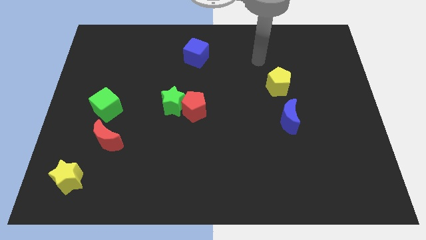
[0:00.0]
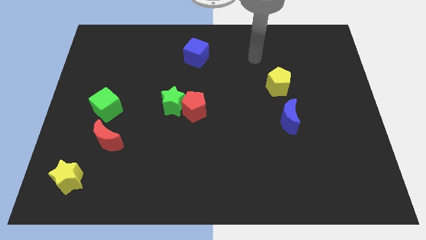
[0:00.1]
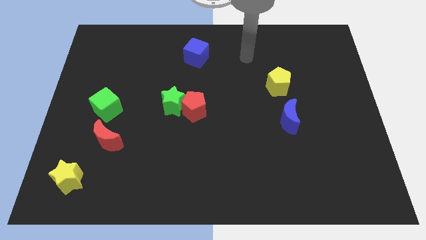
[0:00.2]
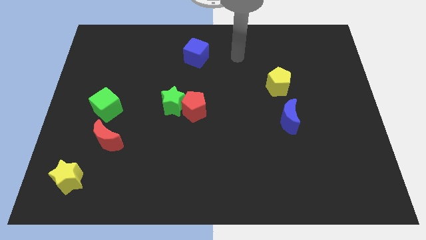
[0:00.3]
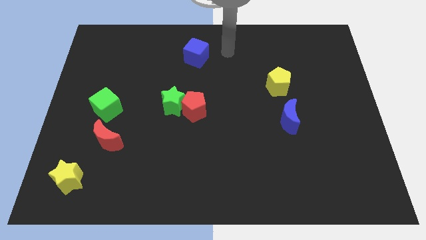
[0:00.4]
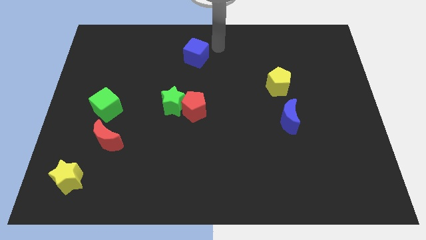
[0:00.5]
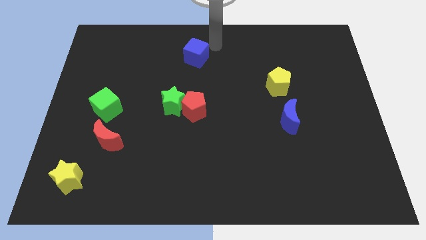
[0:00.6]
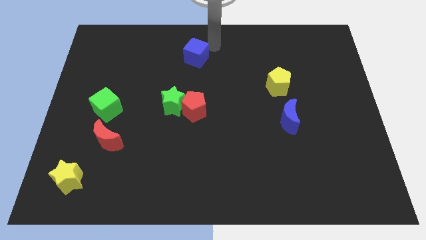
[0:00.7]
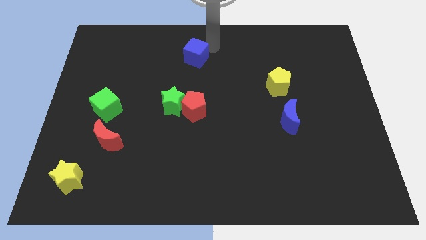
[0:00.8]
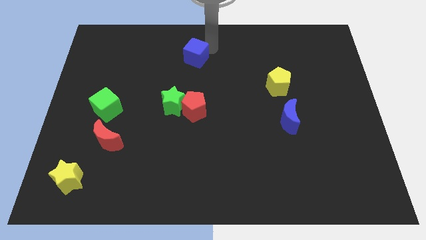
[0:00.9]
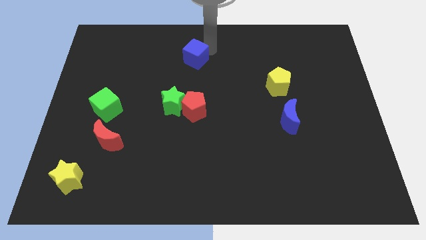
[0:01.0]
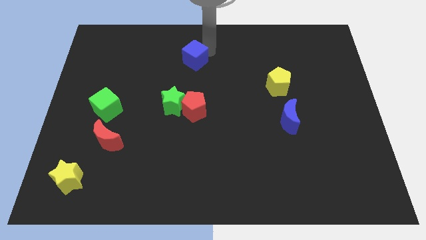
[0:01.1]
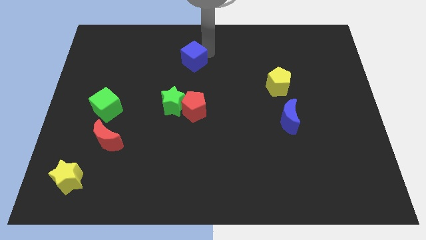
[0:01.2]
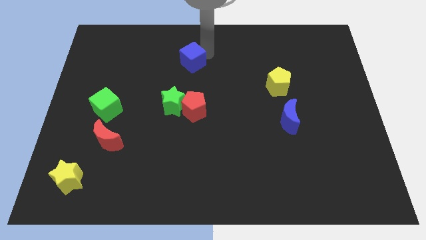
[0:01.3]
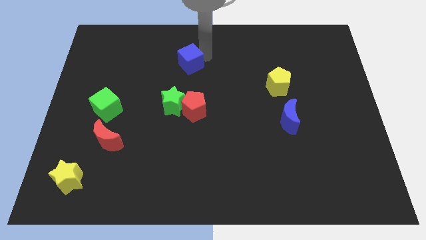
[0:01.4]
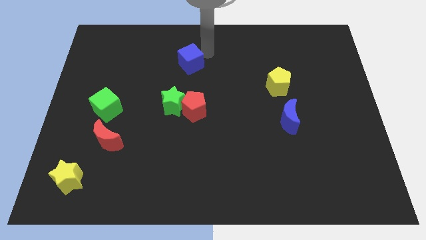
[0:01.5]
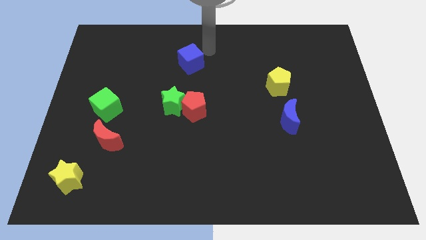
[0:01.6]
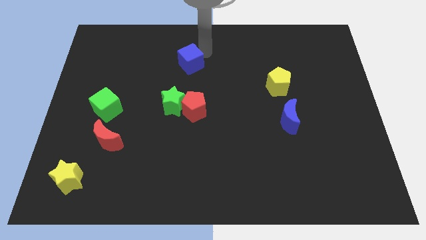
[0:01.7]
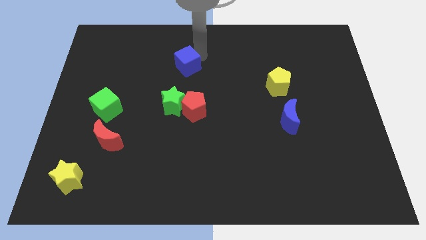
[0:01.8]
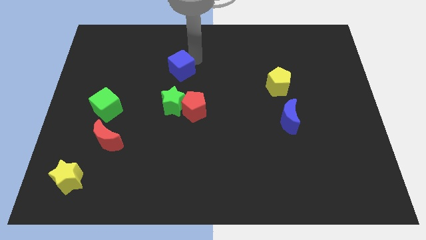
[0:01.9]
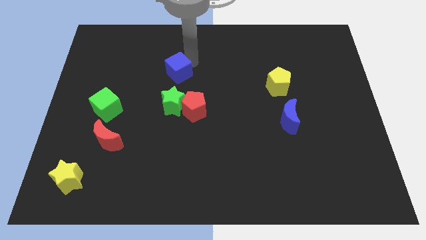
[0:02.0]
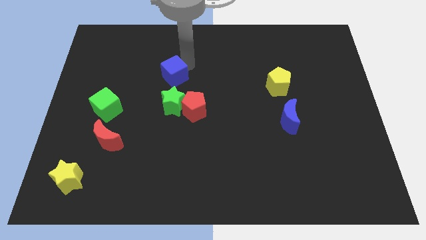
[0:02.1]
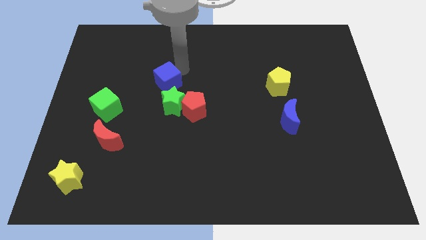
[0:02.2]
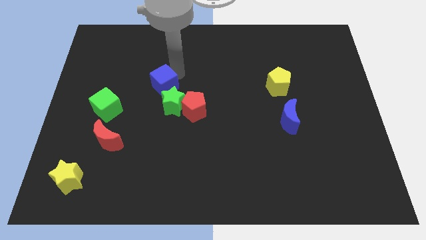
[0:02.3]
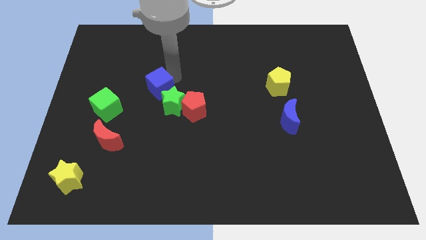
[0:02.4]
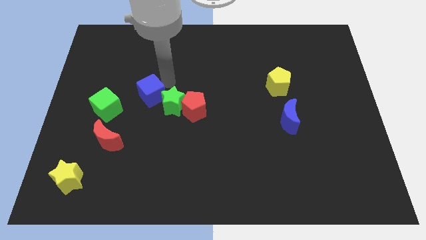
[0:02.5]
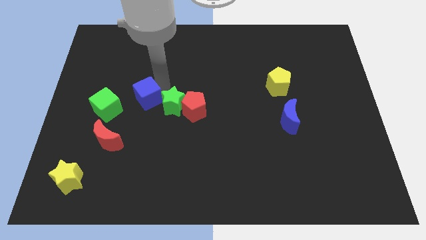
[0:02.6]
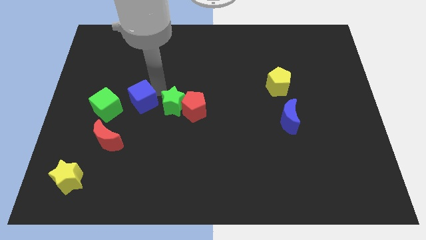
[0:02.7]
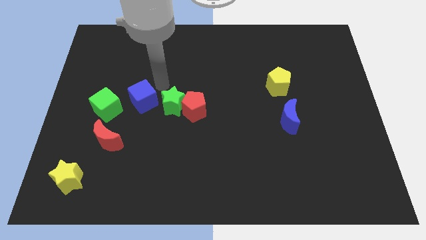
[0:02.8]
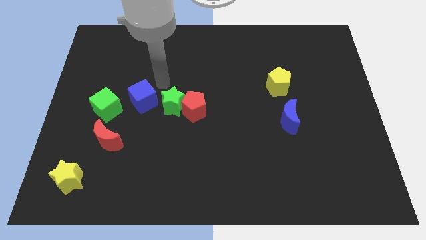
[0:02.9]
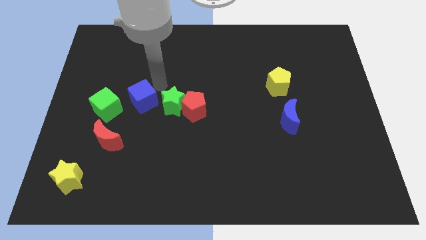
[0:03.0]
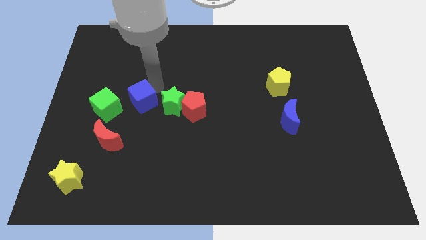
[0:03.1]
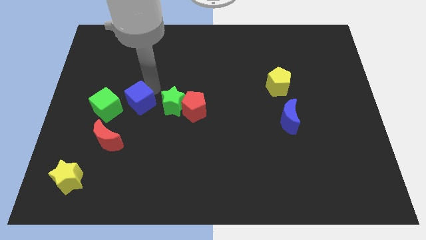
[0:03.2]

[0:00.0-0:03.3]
slide the blue cube down and to the left diagonally

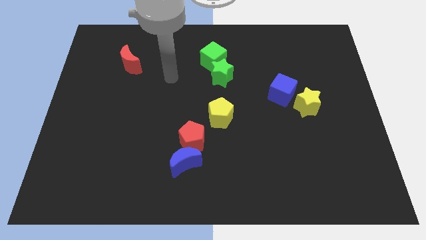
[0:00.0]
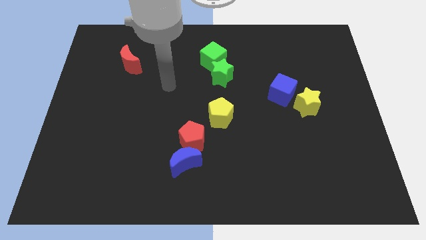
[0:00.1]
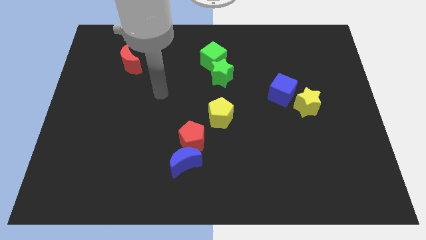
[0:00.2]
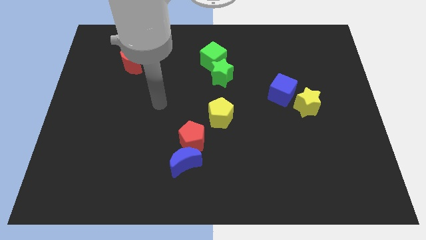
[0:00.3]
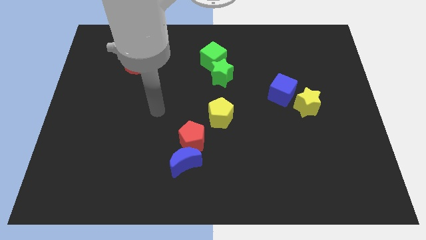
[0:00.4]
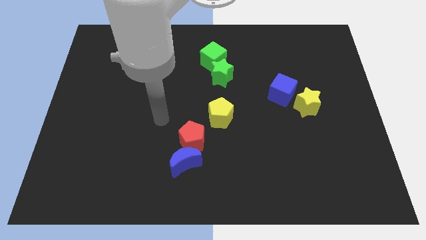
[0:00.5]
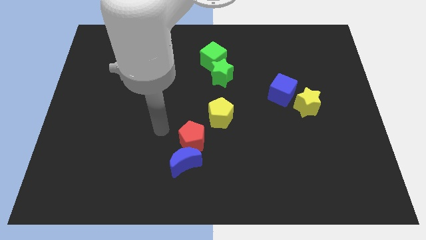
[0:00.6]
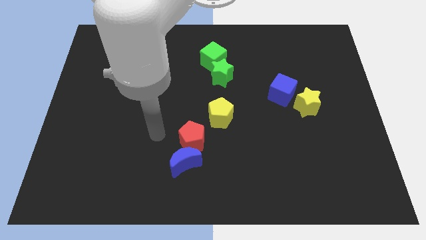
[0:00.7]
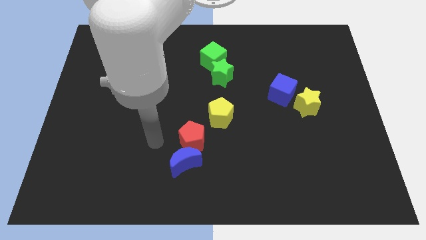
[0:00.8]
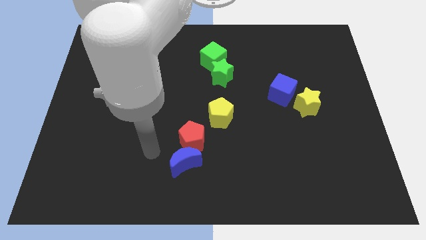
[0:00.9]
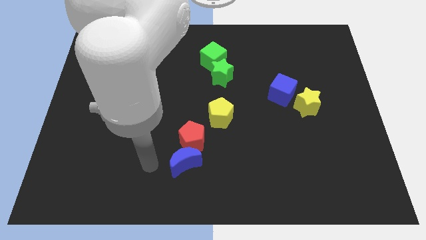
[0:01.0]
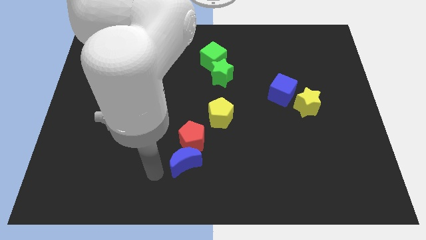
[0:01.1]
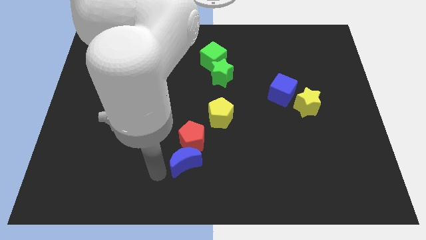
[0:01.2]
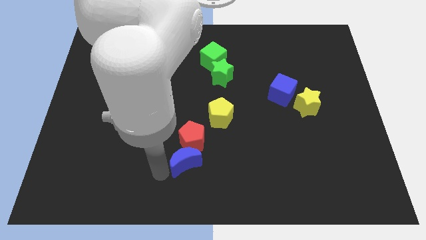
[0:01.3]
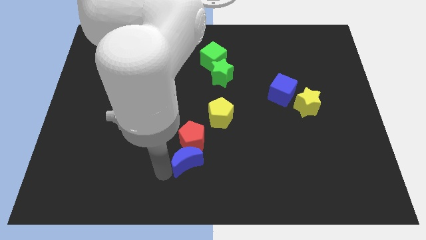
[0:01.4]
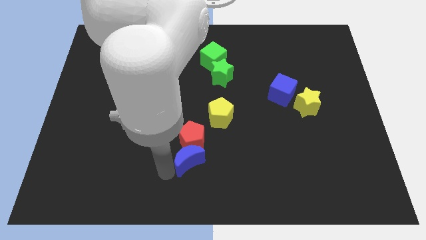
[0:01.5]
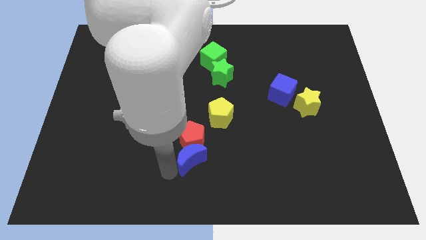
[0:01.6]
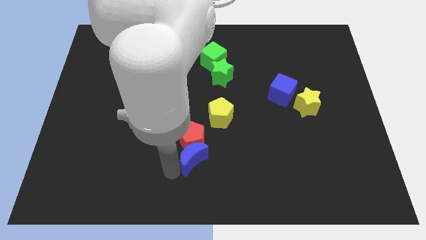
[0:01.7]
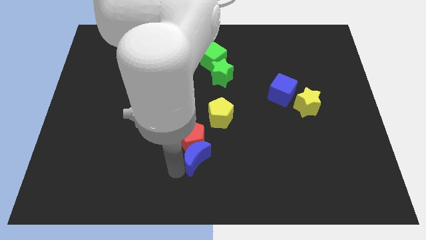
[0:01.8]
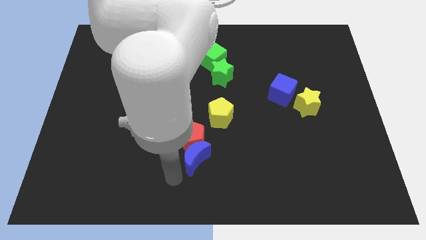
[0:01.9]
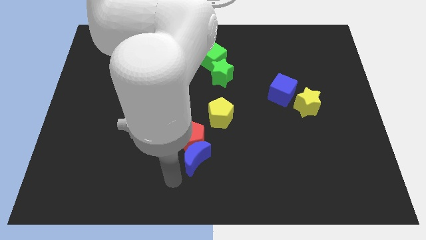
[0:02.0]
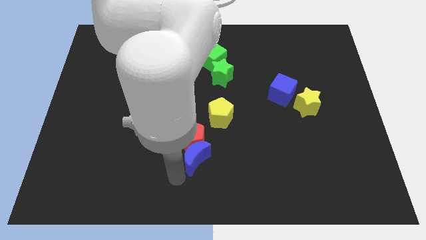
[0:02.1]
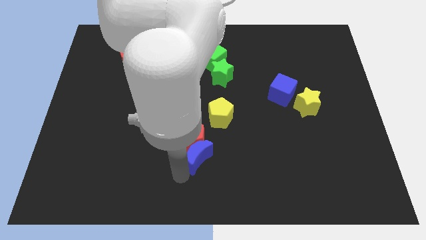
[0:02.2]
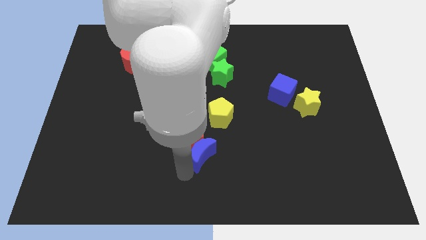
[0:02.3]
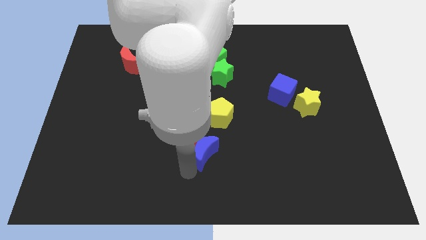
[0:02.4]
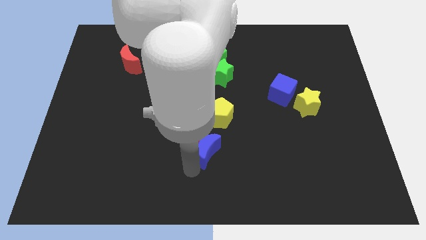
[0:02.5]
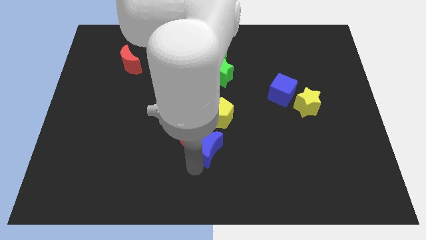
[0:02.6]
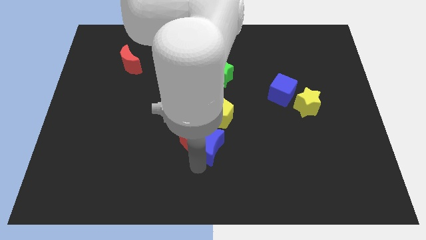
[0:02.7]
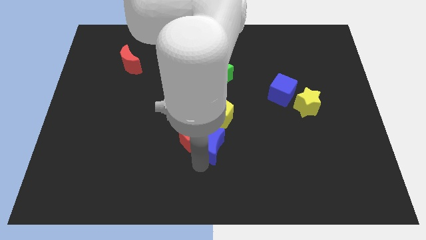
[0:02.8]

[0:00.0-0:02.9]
slightly slide the blue moon diagonally upwards and right

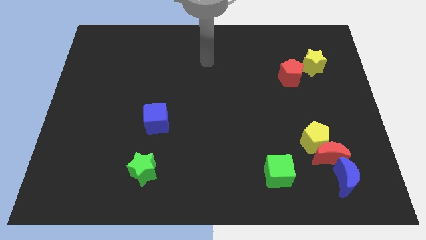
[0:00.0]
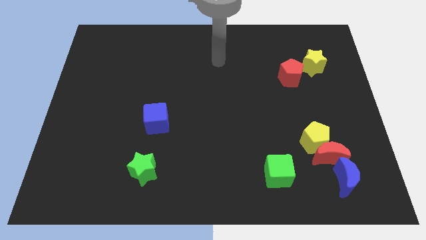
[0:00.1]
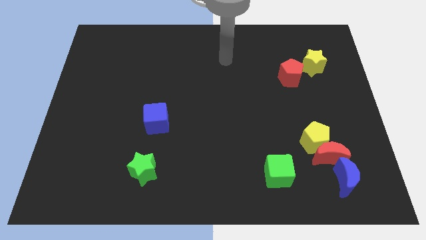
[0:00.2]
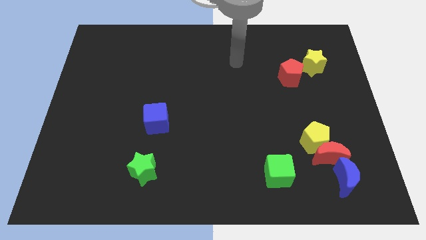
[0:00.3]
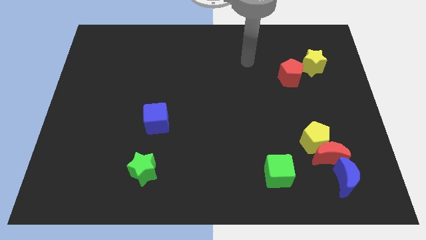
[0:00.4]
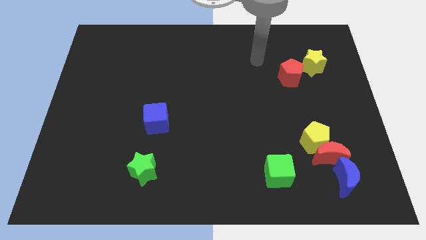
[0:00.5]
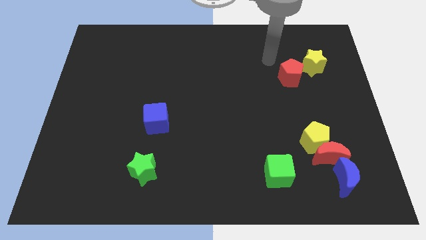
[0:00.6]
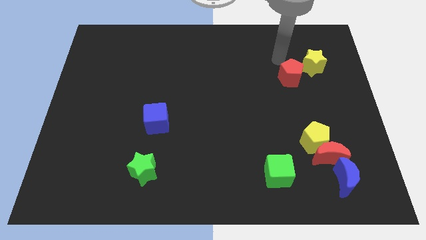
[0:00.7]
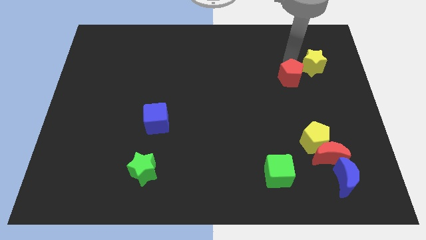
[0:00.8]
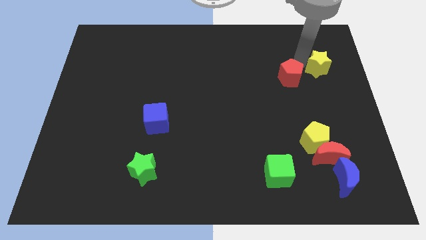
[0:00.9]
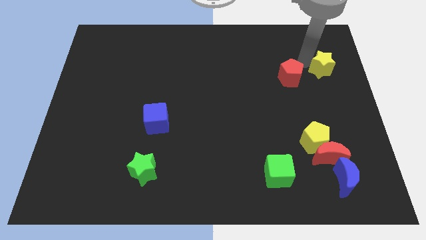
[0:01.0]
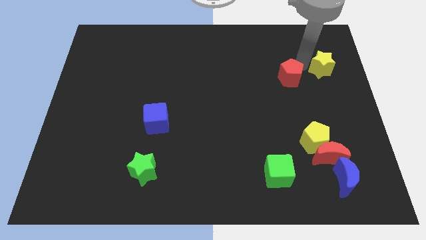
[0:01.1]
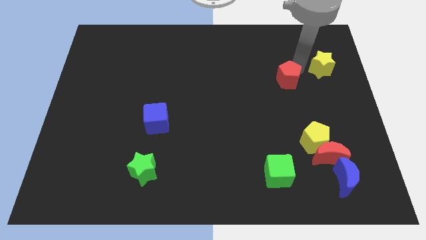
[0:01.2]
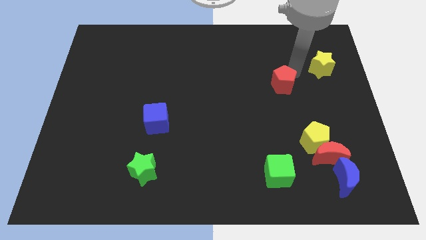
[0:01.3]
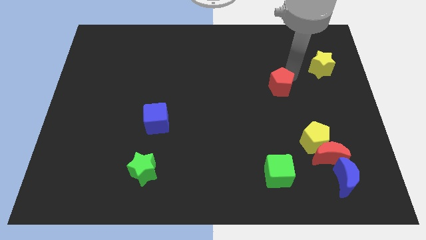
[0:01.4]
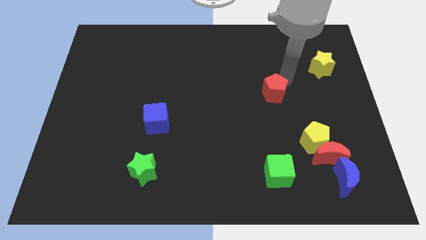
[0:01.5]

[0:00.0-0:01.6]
push the red pentagon down and to the left slightly

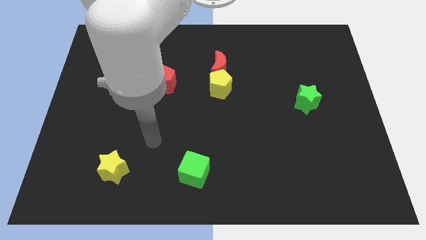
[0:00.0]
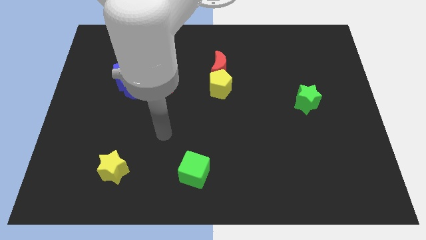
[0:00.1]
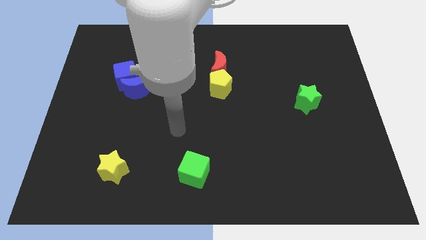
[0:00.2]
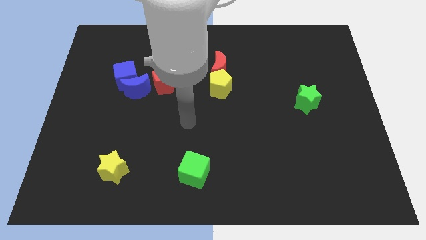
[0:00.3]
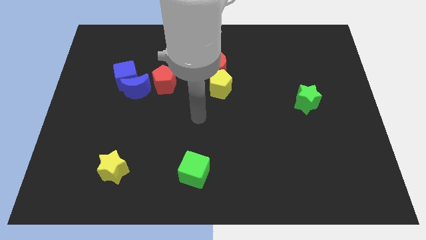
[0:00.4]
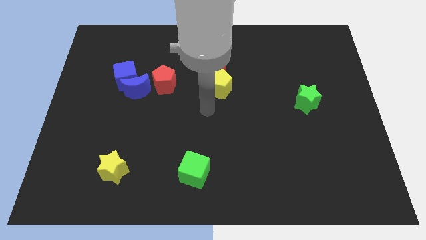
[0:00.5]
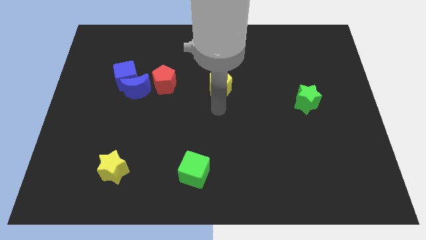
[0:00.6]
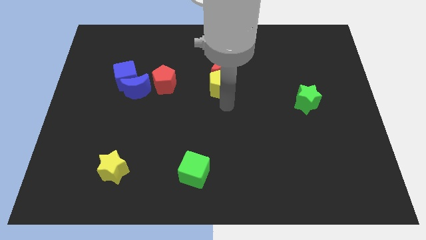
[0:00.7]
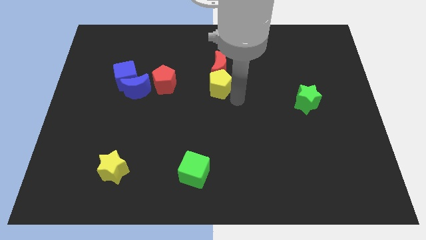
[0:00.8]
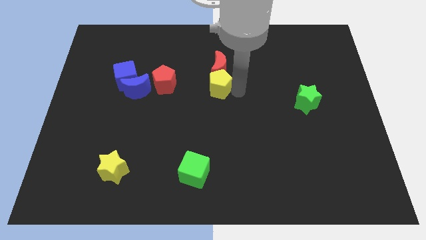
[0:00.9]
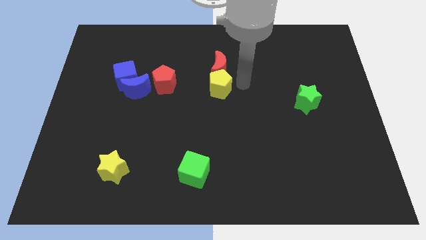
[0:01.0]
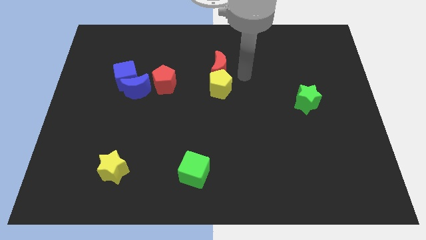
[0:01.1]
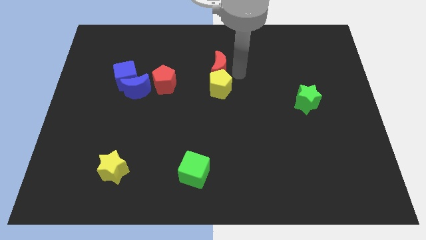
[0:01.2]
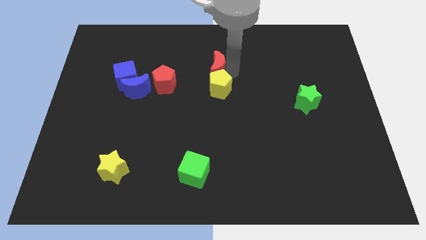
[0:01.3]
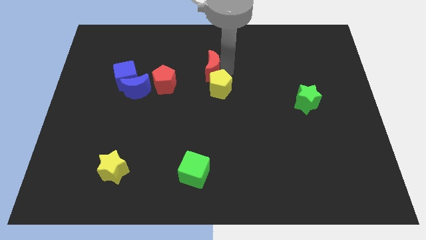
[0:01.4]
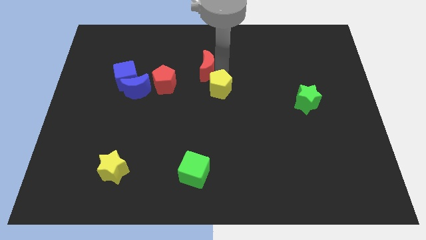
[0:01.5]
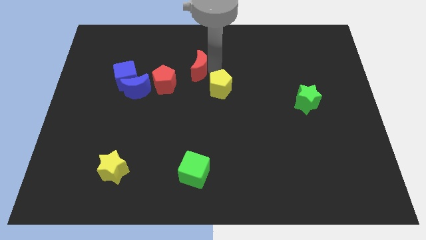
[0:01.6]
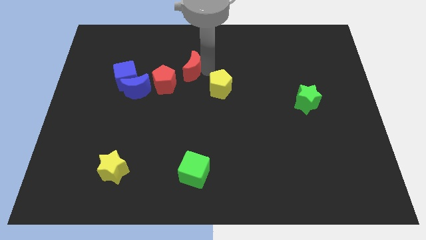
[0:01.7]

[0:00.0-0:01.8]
slightly push the red moon left
